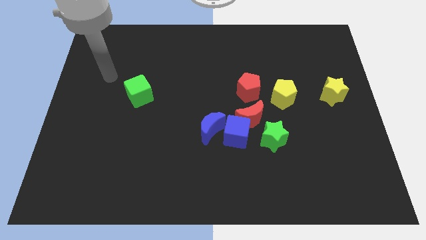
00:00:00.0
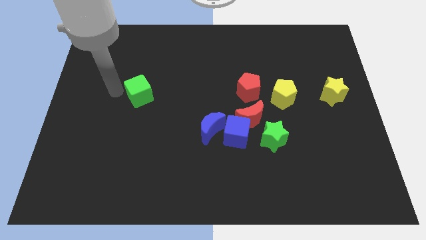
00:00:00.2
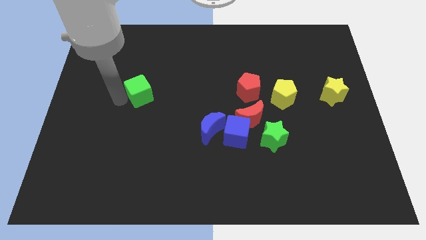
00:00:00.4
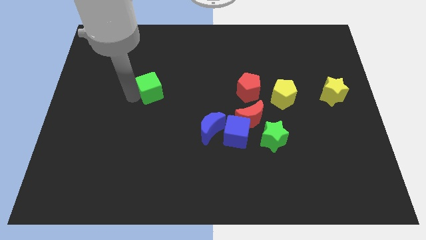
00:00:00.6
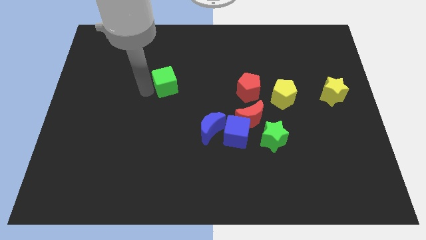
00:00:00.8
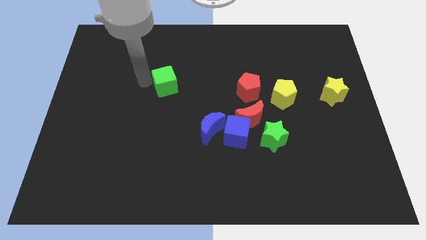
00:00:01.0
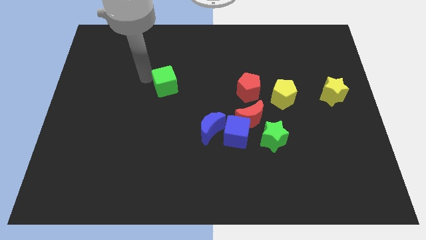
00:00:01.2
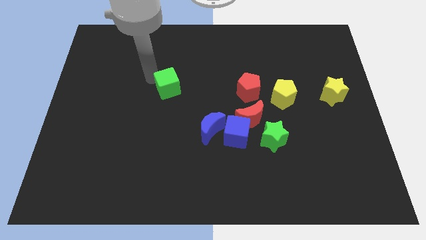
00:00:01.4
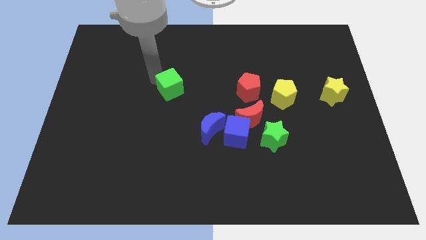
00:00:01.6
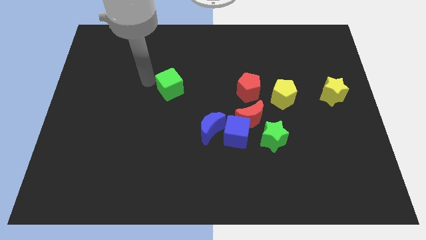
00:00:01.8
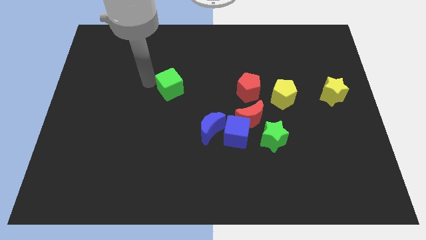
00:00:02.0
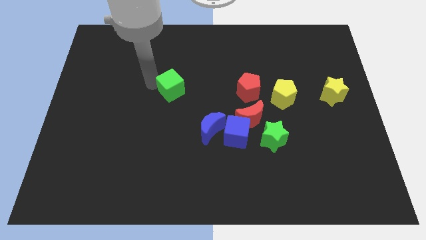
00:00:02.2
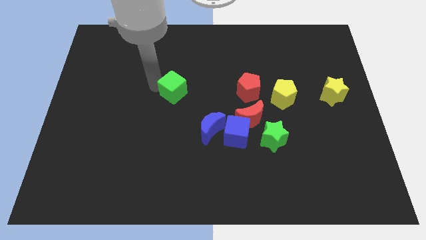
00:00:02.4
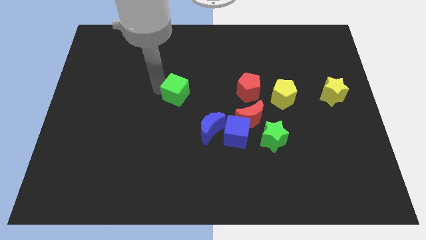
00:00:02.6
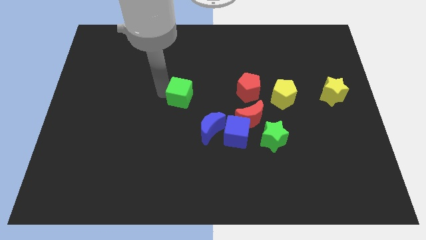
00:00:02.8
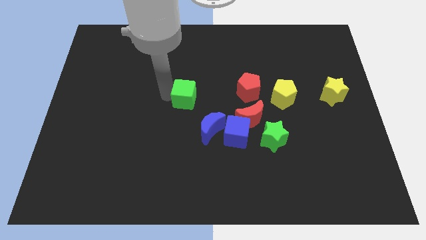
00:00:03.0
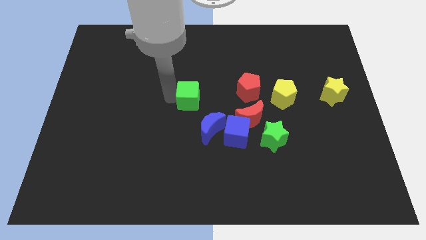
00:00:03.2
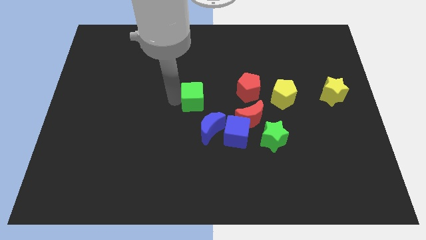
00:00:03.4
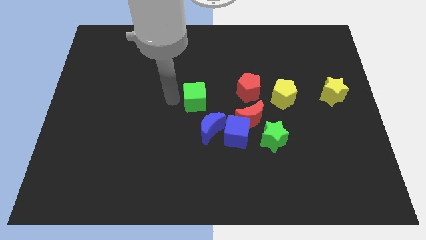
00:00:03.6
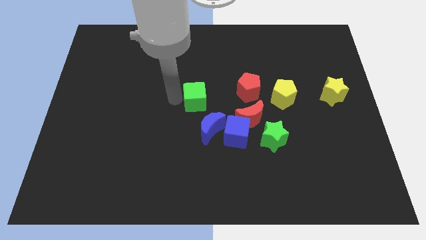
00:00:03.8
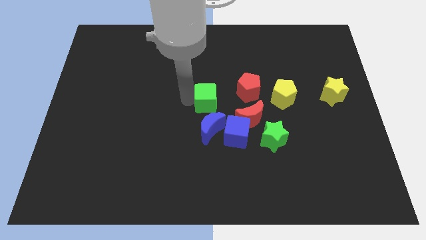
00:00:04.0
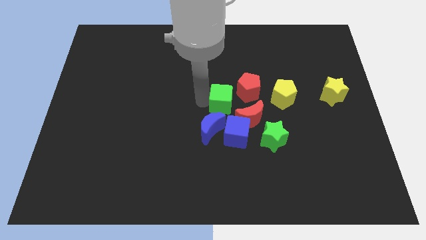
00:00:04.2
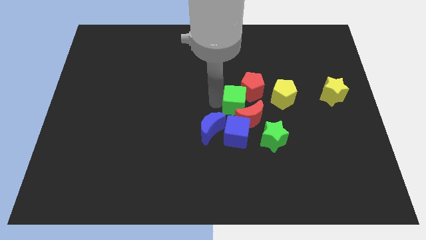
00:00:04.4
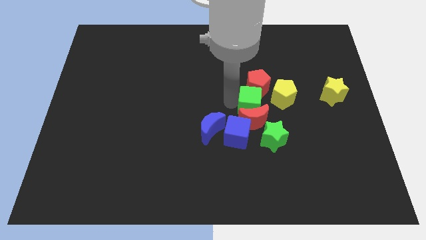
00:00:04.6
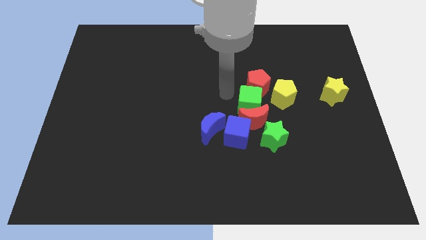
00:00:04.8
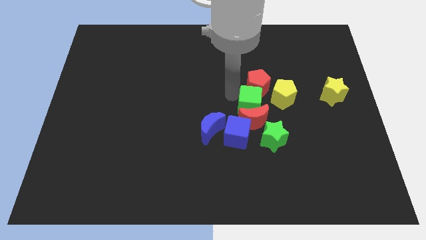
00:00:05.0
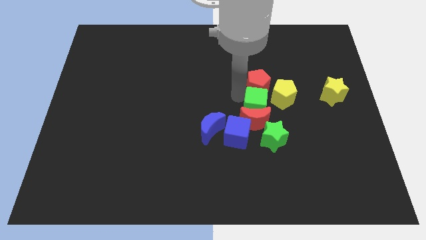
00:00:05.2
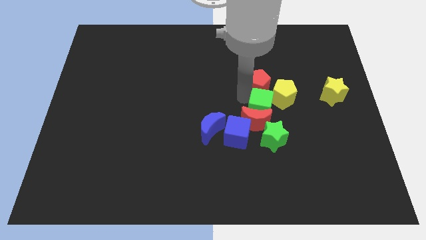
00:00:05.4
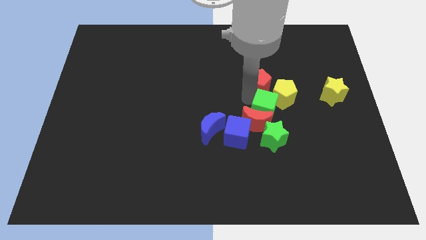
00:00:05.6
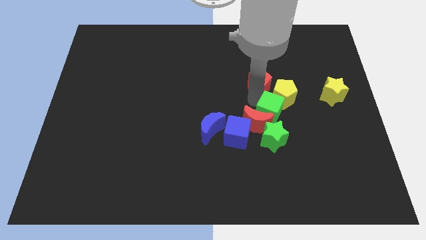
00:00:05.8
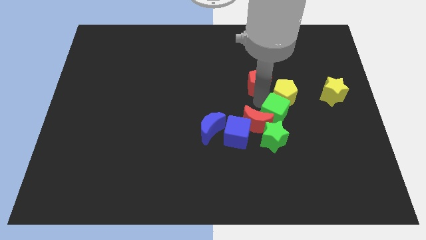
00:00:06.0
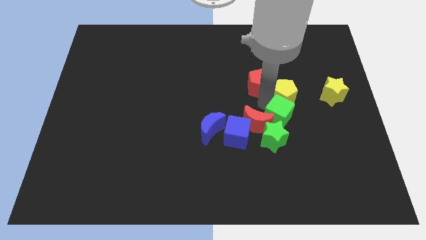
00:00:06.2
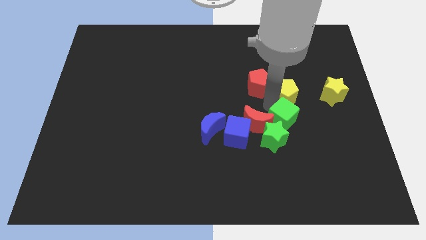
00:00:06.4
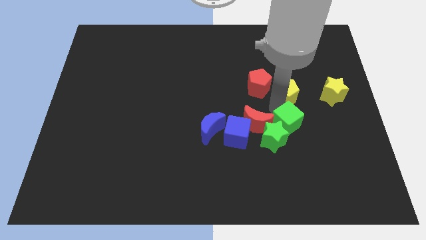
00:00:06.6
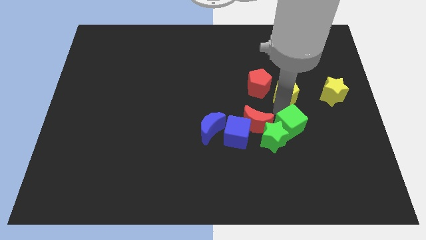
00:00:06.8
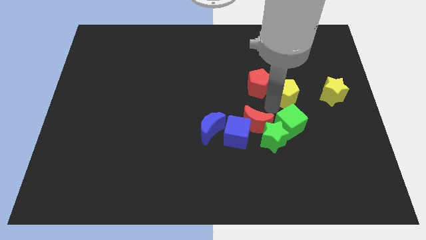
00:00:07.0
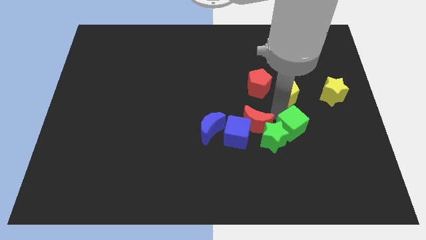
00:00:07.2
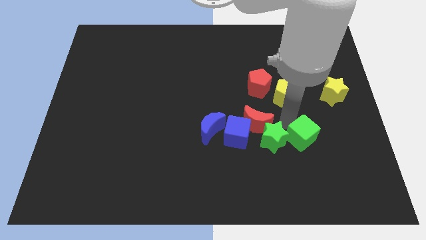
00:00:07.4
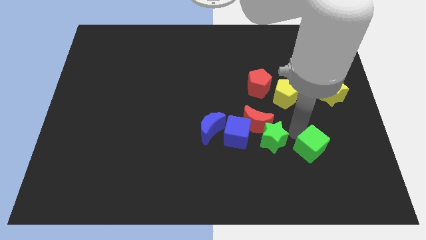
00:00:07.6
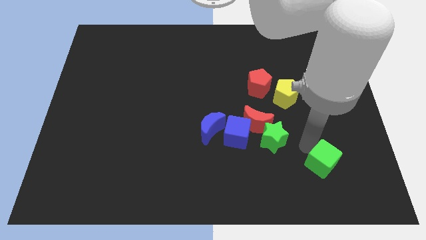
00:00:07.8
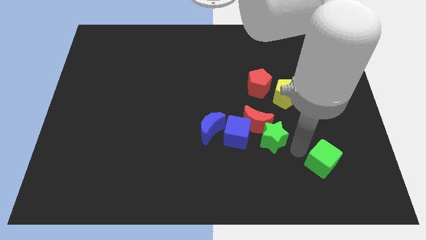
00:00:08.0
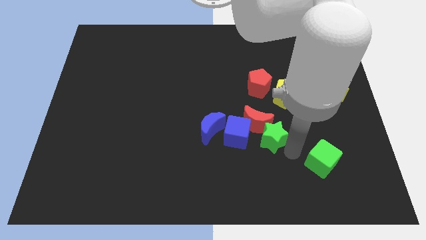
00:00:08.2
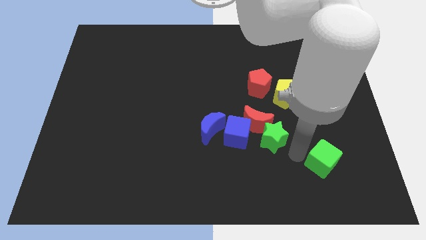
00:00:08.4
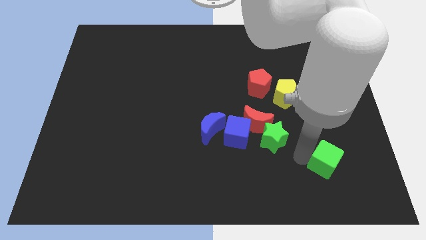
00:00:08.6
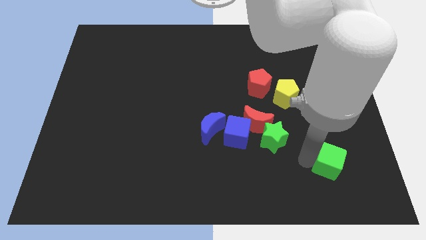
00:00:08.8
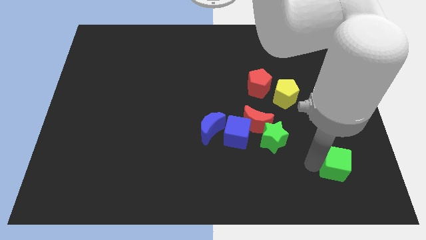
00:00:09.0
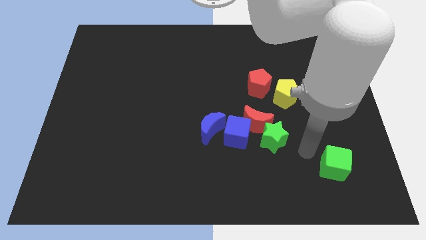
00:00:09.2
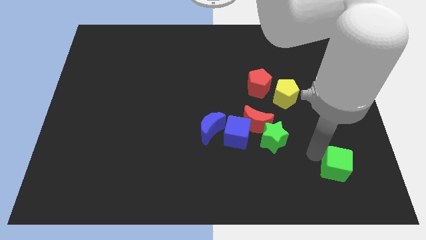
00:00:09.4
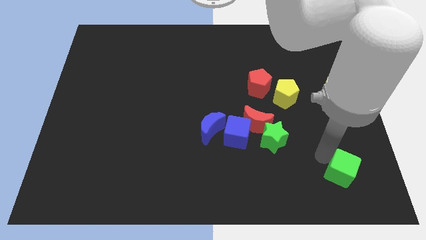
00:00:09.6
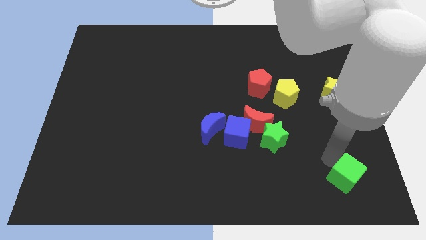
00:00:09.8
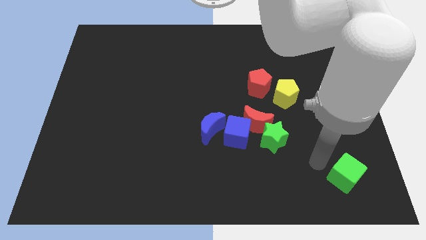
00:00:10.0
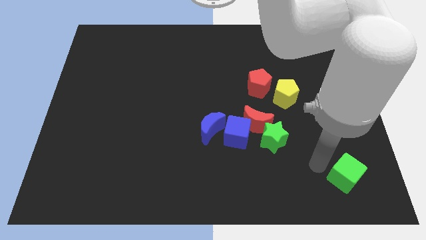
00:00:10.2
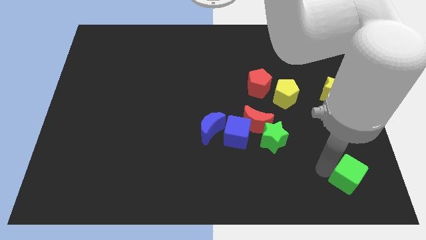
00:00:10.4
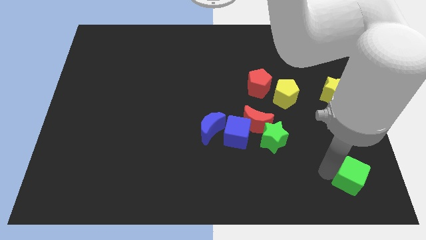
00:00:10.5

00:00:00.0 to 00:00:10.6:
put the green cube to the bottom right of the board

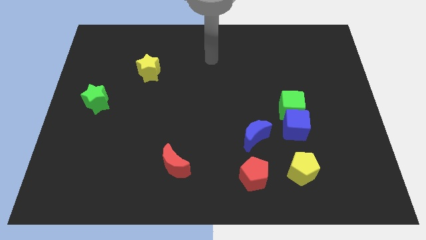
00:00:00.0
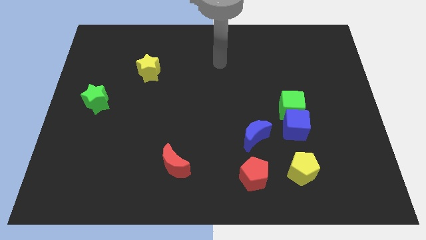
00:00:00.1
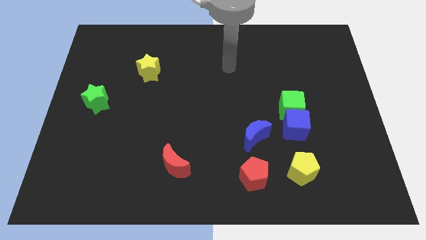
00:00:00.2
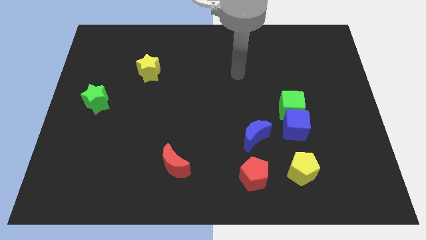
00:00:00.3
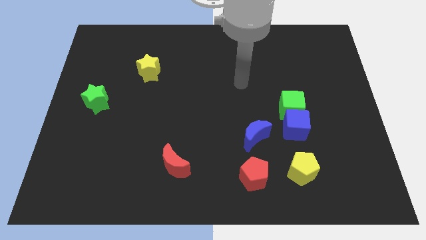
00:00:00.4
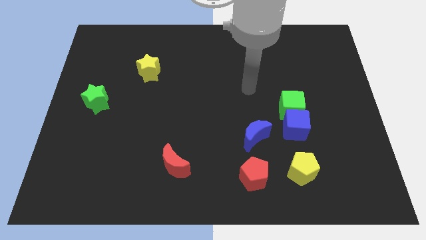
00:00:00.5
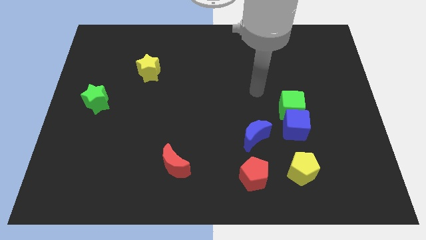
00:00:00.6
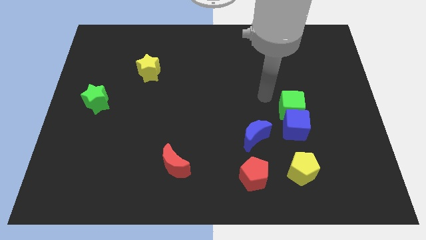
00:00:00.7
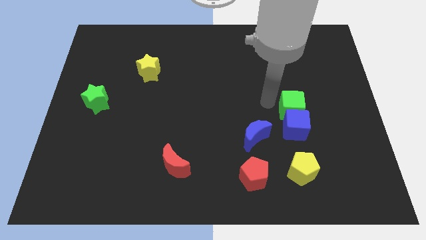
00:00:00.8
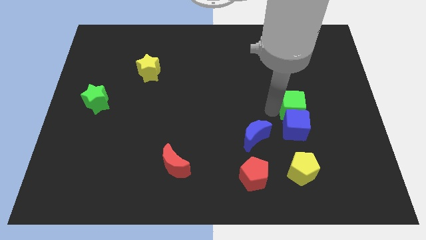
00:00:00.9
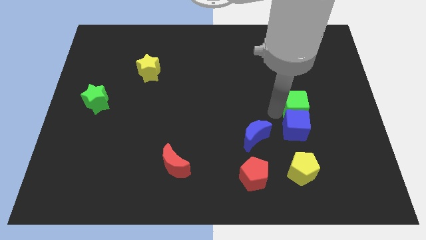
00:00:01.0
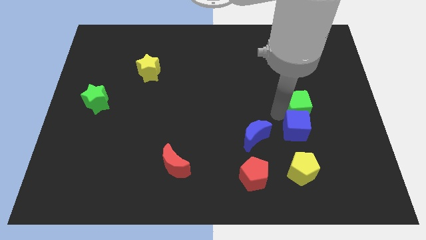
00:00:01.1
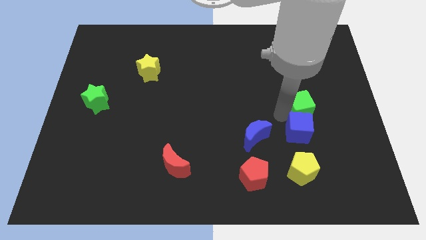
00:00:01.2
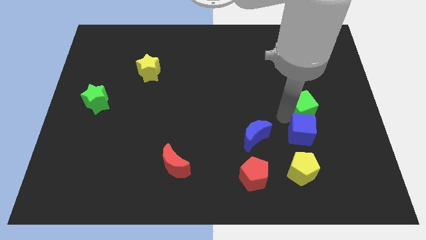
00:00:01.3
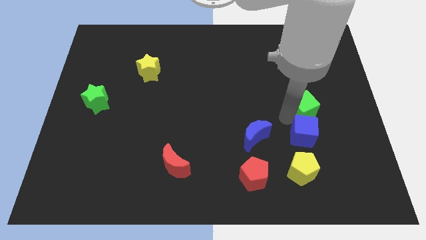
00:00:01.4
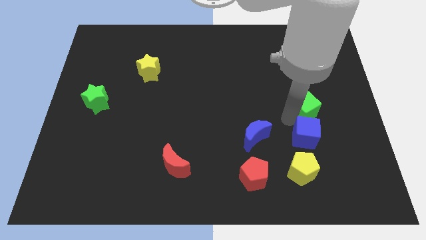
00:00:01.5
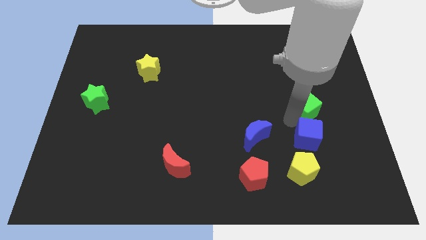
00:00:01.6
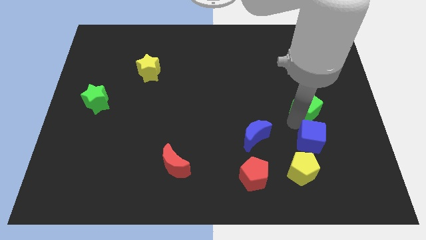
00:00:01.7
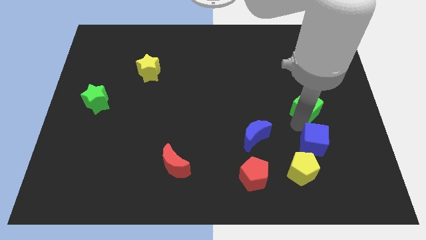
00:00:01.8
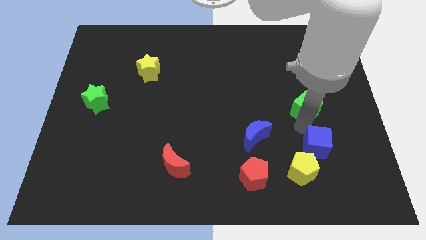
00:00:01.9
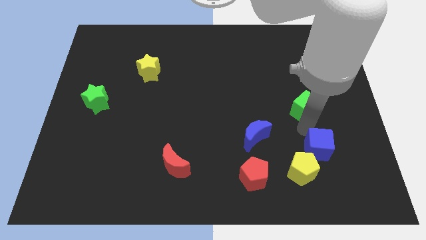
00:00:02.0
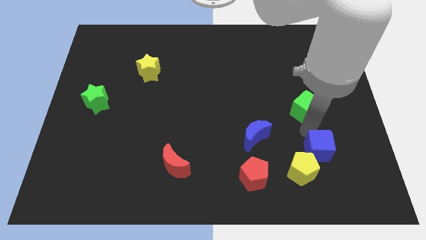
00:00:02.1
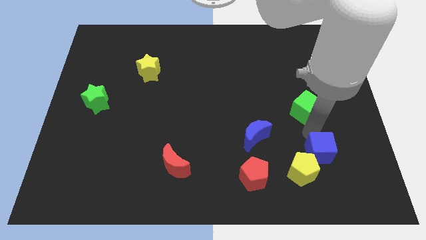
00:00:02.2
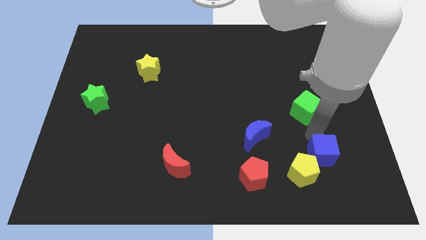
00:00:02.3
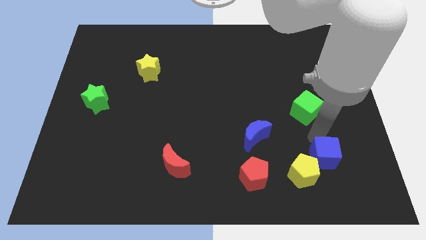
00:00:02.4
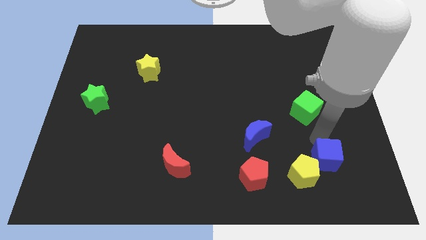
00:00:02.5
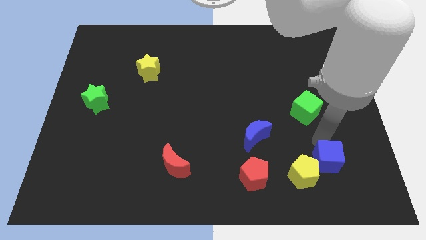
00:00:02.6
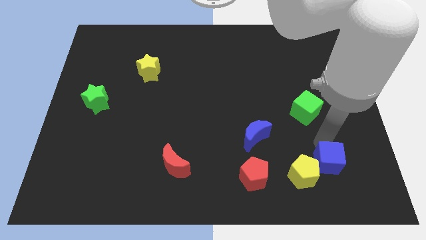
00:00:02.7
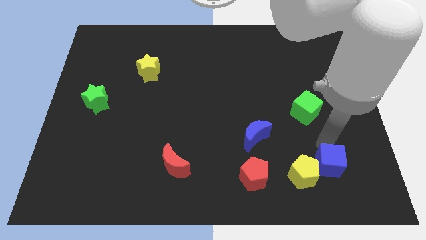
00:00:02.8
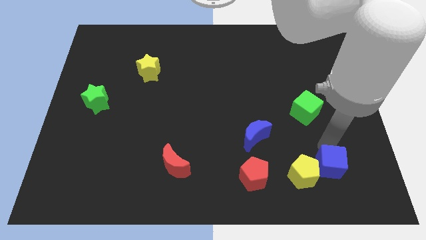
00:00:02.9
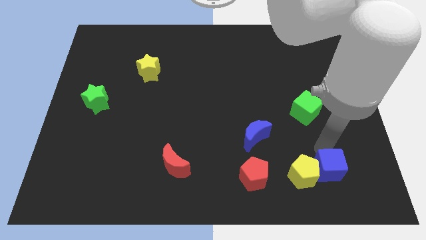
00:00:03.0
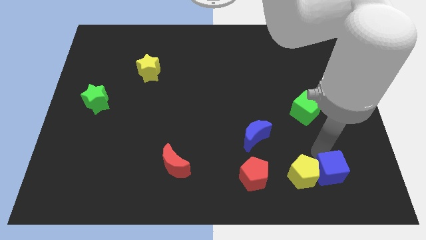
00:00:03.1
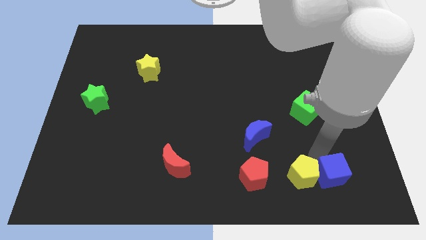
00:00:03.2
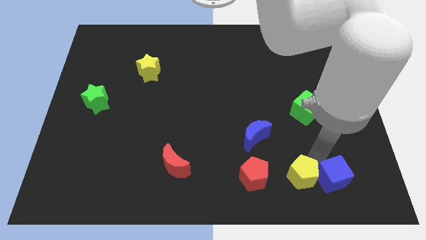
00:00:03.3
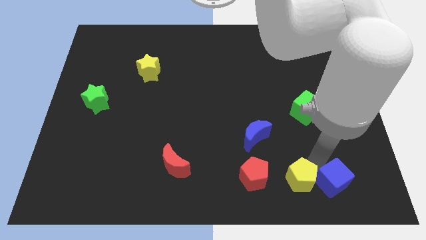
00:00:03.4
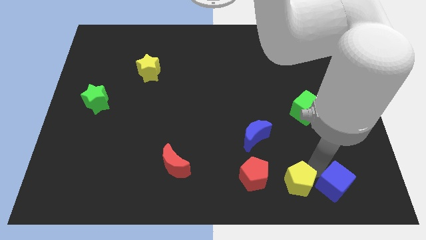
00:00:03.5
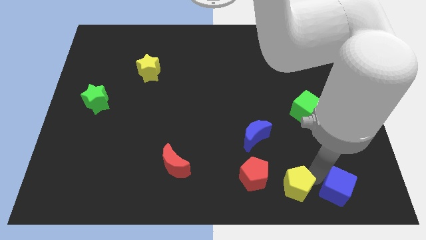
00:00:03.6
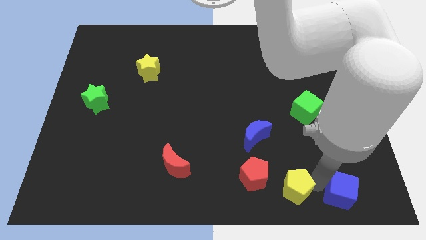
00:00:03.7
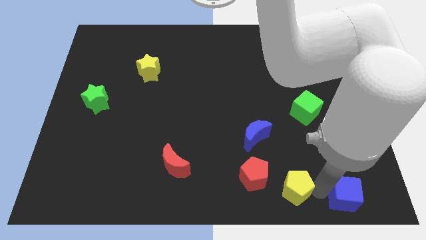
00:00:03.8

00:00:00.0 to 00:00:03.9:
put the blue cube to the bottom right of the board
